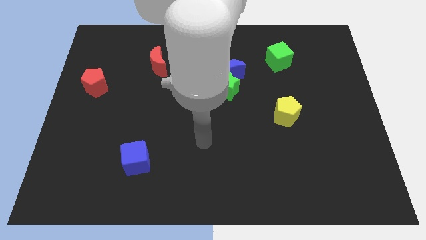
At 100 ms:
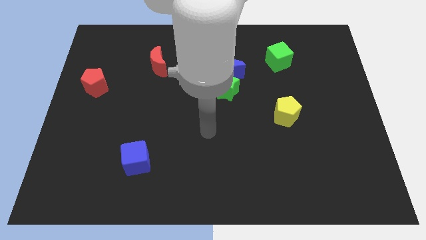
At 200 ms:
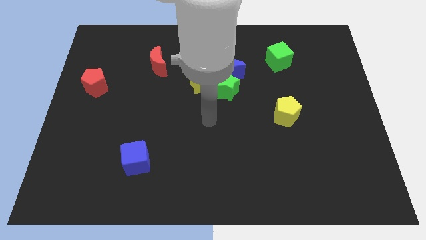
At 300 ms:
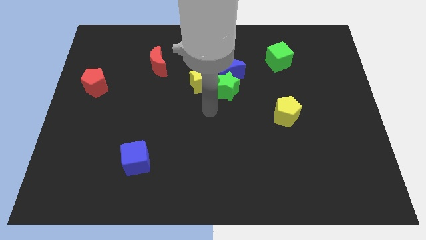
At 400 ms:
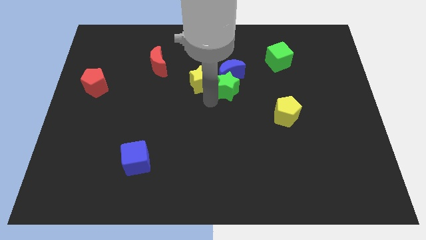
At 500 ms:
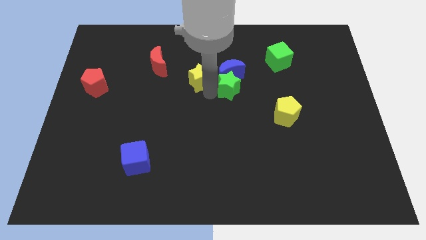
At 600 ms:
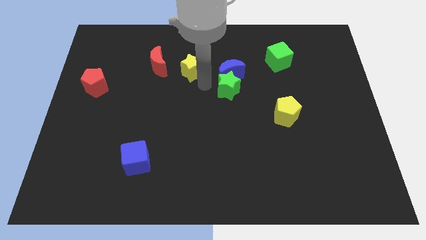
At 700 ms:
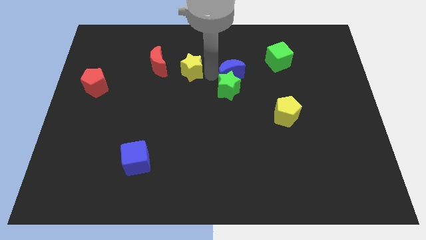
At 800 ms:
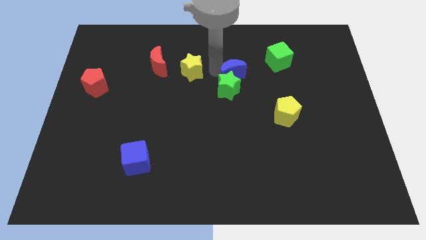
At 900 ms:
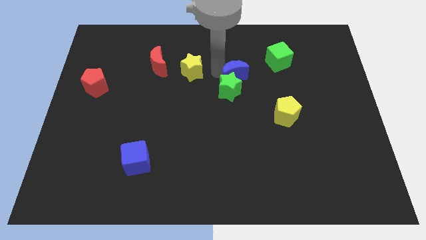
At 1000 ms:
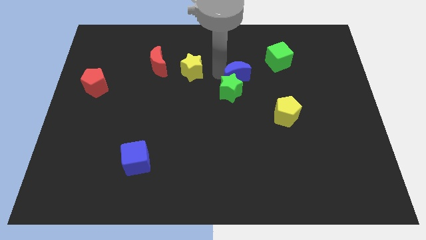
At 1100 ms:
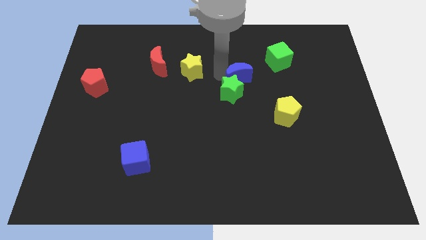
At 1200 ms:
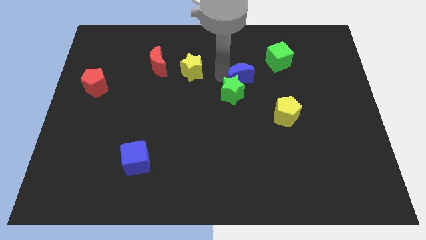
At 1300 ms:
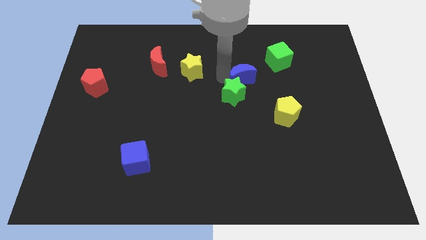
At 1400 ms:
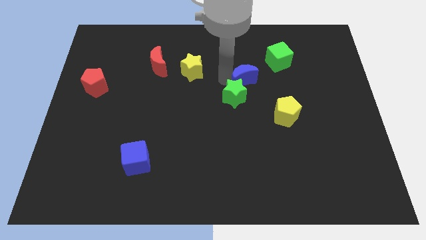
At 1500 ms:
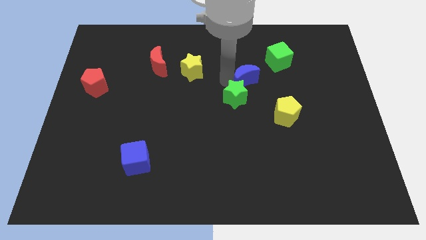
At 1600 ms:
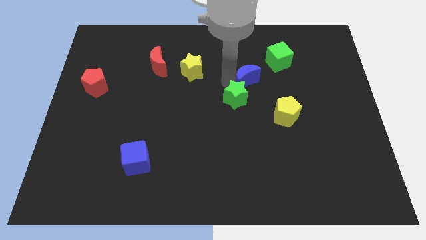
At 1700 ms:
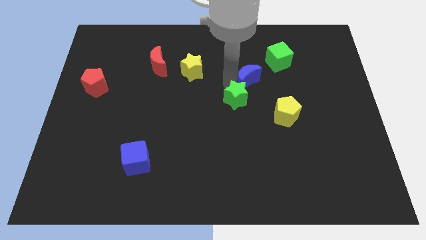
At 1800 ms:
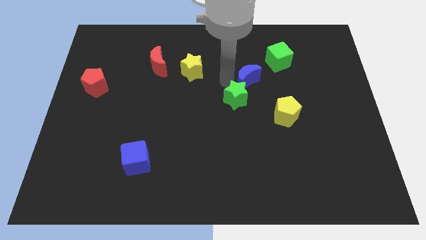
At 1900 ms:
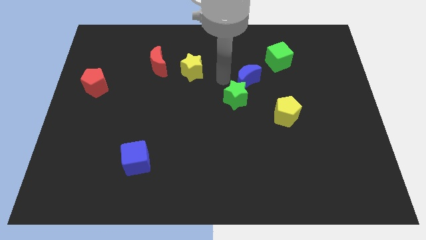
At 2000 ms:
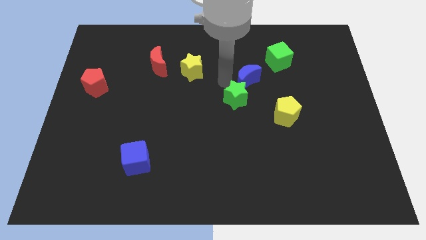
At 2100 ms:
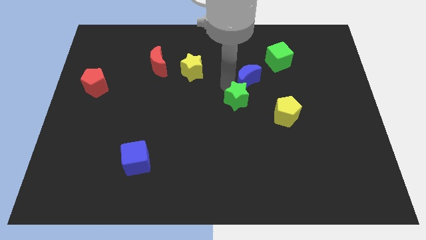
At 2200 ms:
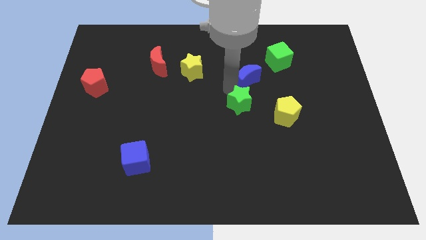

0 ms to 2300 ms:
pull the green star apart from the blue moon and yellow star

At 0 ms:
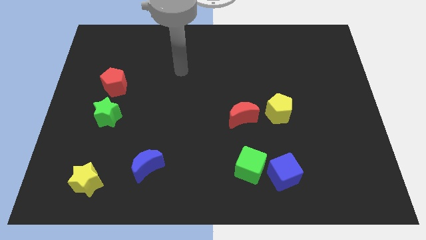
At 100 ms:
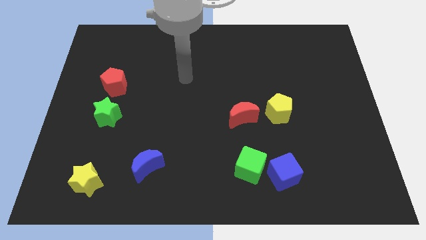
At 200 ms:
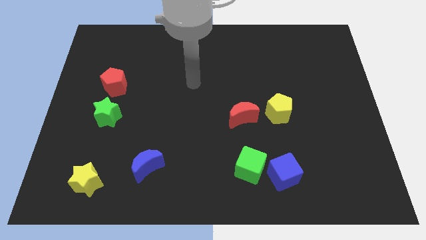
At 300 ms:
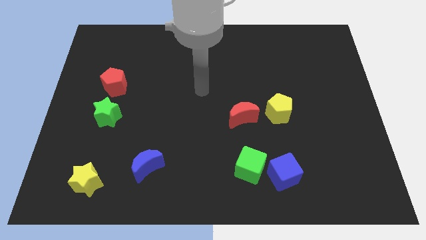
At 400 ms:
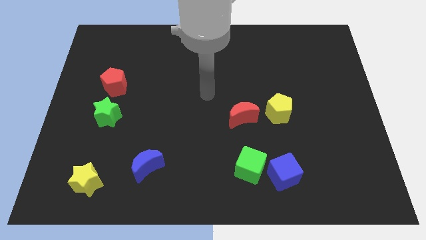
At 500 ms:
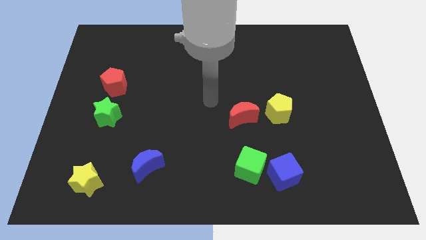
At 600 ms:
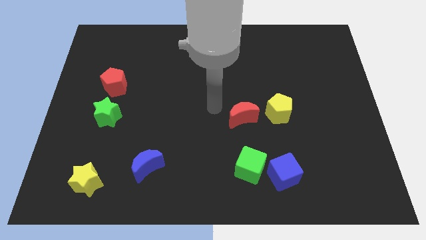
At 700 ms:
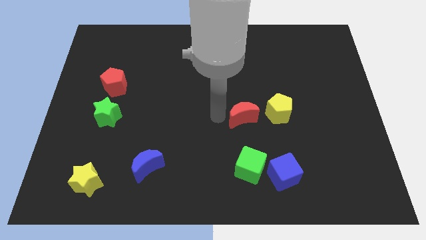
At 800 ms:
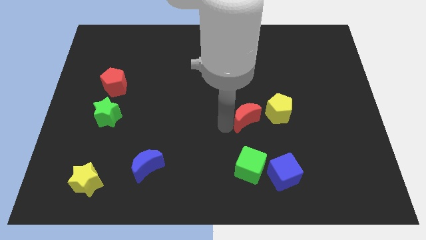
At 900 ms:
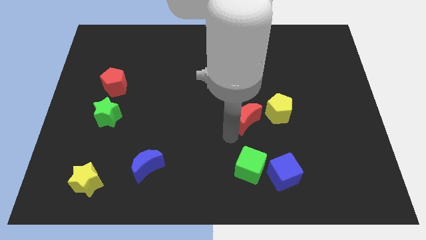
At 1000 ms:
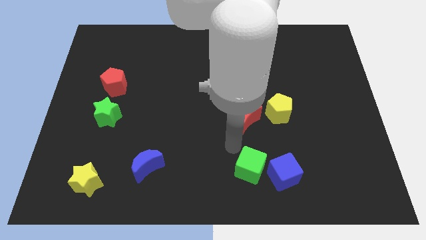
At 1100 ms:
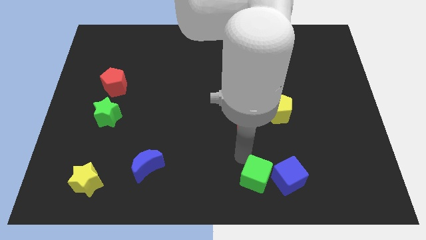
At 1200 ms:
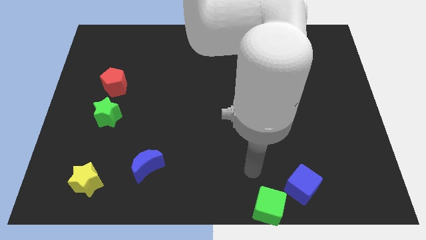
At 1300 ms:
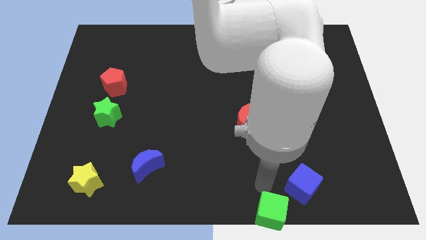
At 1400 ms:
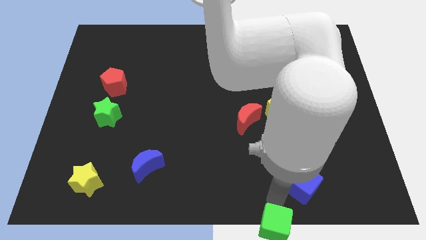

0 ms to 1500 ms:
separate the blue cube from the green cube

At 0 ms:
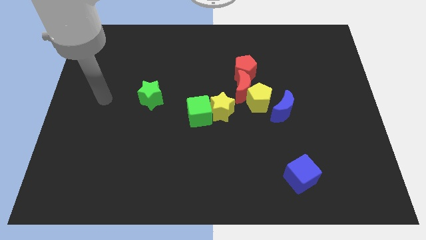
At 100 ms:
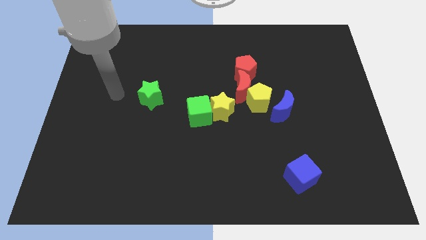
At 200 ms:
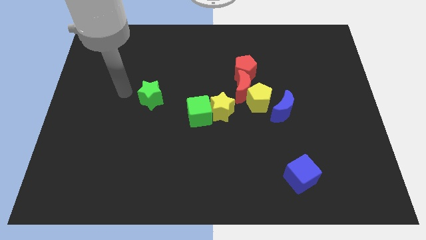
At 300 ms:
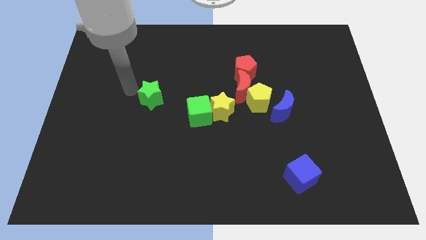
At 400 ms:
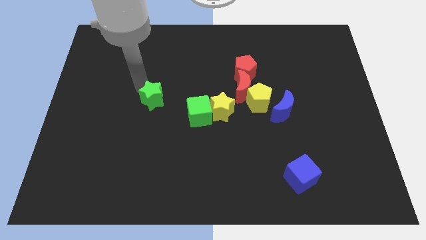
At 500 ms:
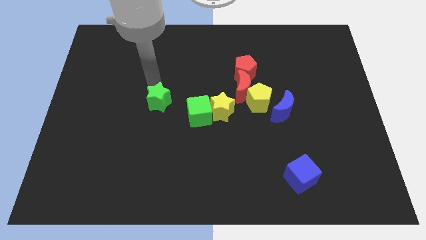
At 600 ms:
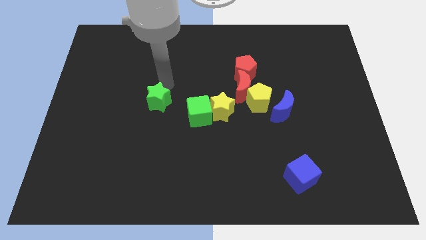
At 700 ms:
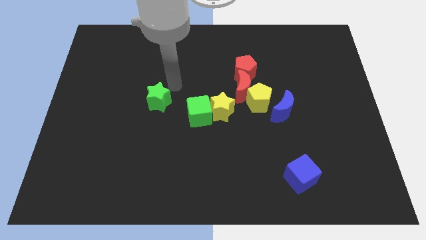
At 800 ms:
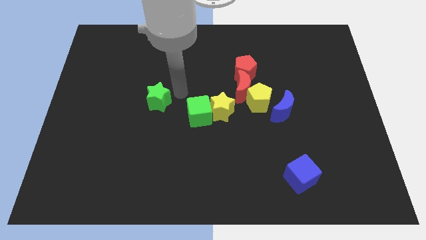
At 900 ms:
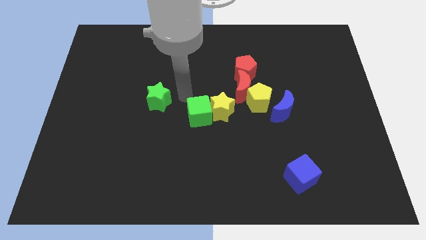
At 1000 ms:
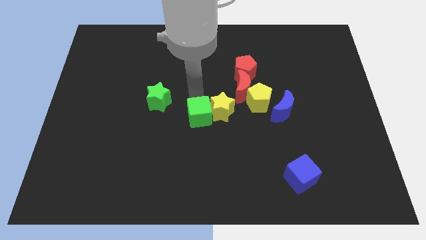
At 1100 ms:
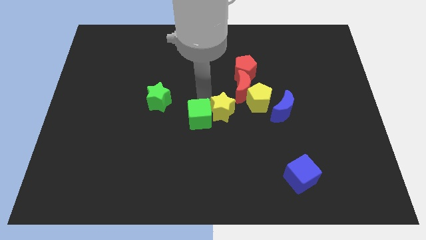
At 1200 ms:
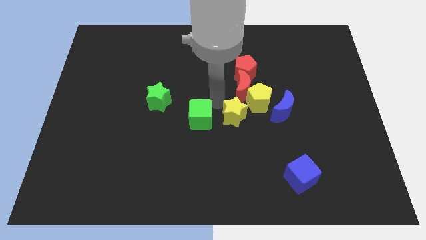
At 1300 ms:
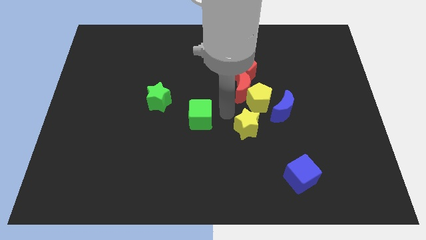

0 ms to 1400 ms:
move the green cube away from the yellow star

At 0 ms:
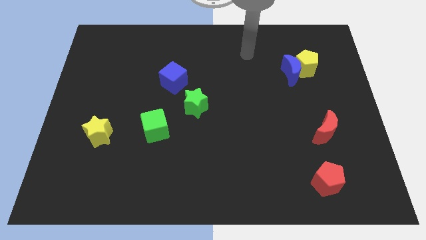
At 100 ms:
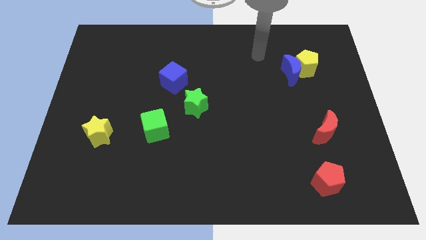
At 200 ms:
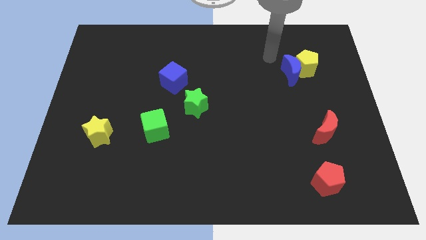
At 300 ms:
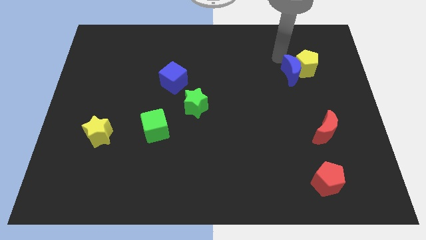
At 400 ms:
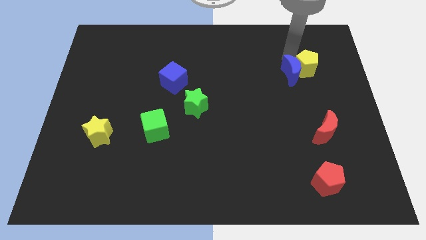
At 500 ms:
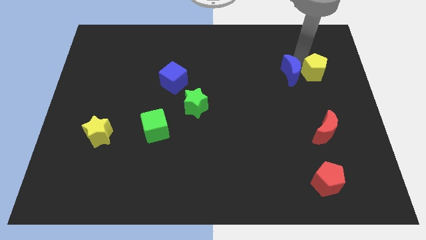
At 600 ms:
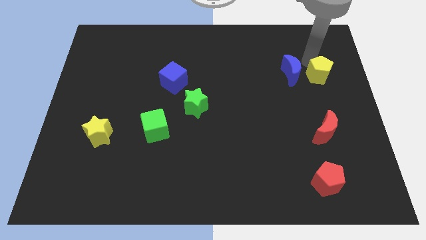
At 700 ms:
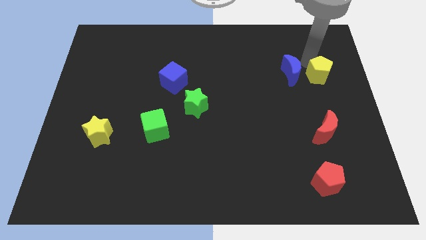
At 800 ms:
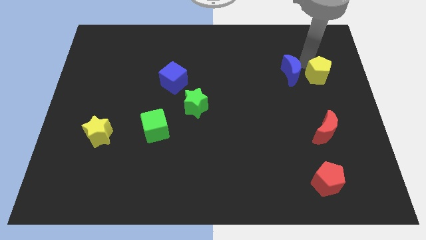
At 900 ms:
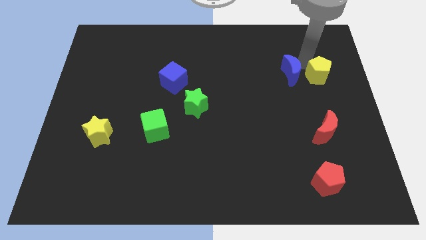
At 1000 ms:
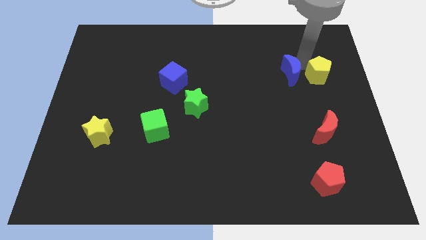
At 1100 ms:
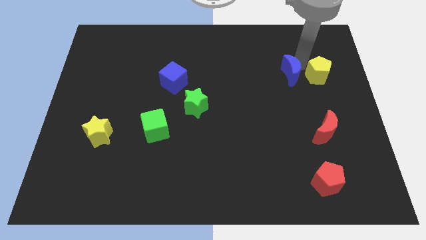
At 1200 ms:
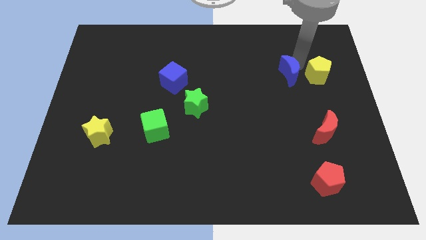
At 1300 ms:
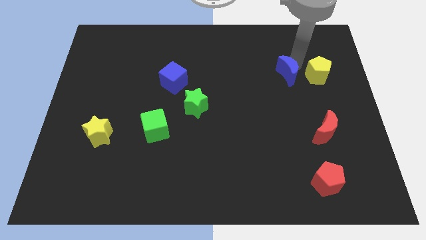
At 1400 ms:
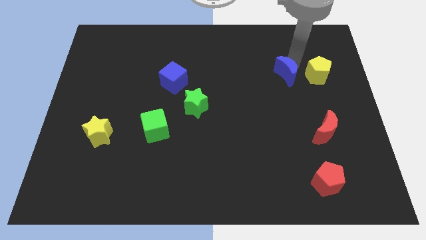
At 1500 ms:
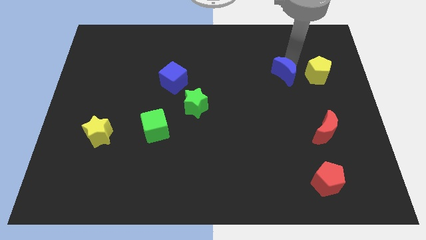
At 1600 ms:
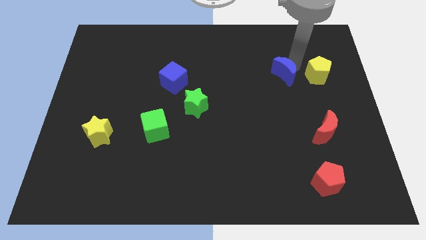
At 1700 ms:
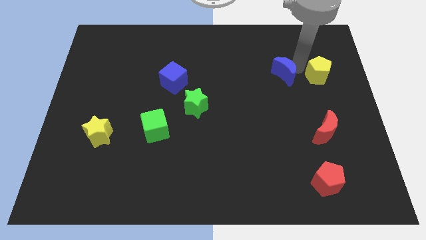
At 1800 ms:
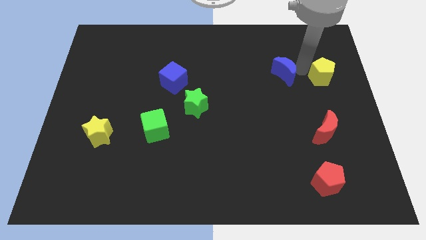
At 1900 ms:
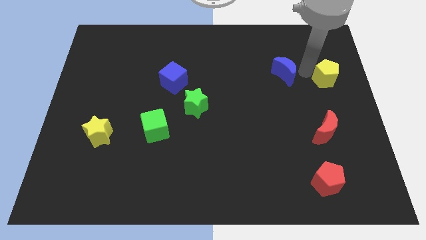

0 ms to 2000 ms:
move the blue moon away from the yellow pentagon

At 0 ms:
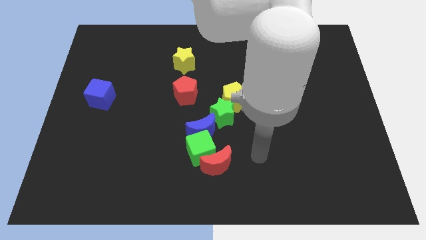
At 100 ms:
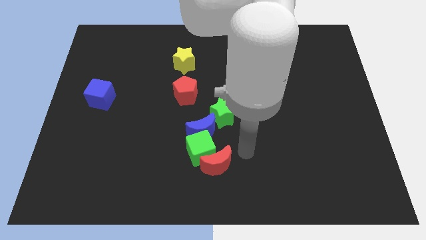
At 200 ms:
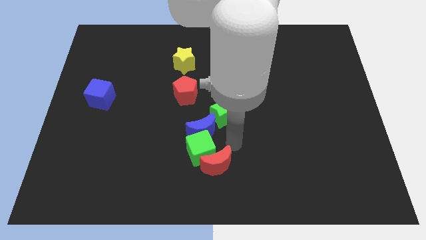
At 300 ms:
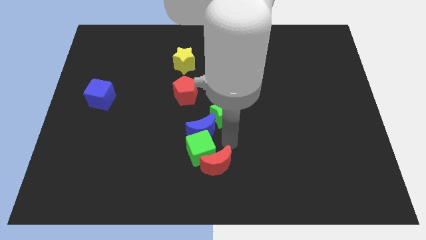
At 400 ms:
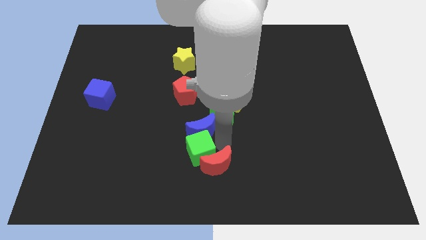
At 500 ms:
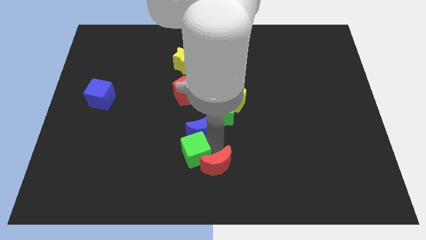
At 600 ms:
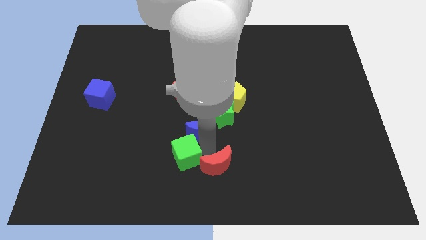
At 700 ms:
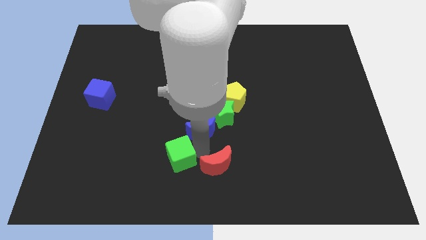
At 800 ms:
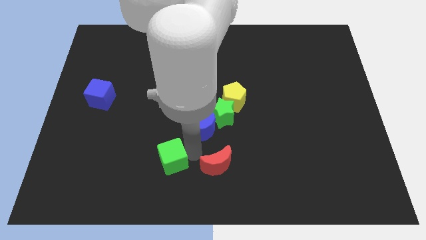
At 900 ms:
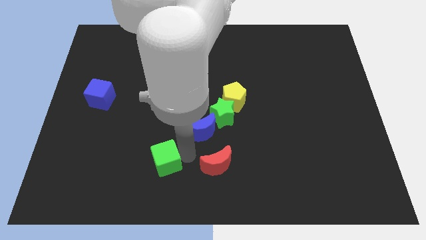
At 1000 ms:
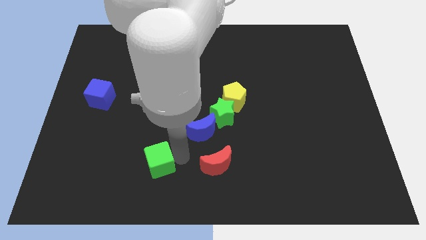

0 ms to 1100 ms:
pull the green cube apart from the blue moon and red moon

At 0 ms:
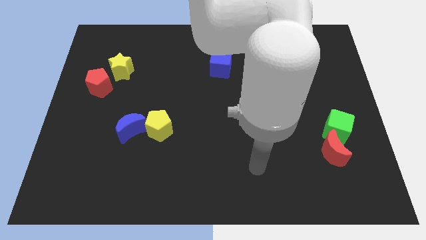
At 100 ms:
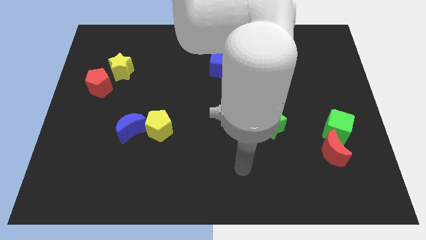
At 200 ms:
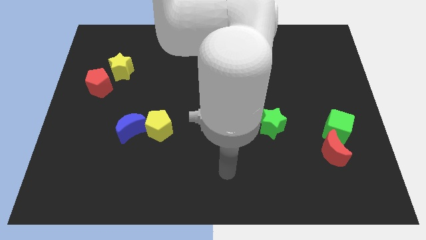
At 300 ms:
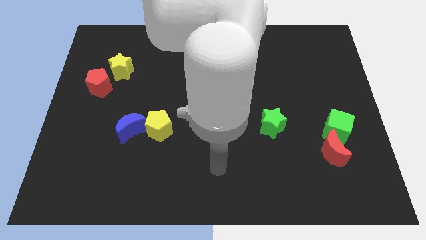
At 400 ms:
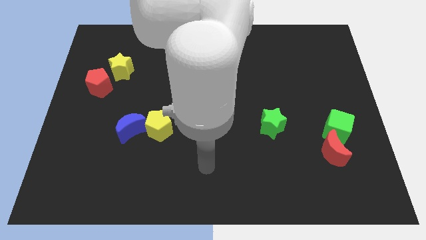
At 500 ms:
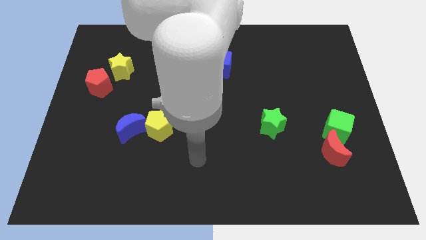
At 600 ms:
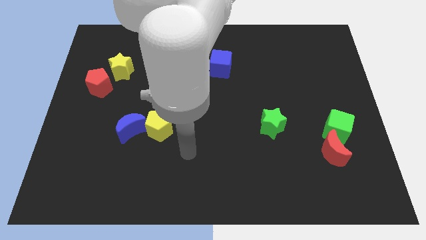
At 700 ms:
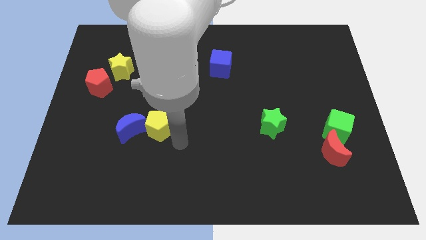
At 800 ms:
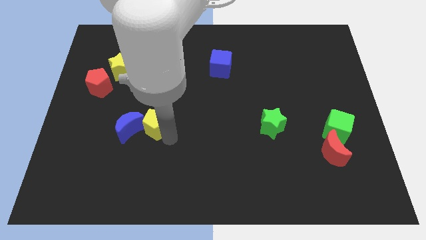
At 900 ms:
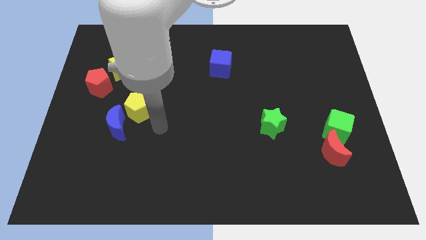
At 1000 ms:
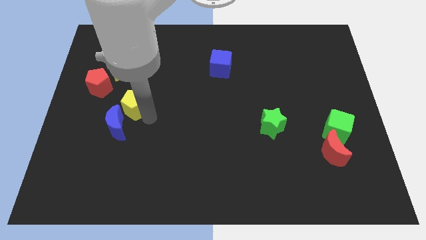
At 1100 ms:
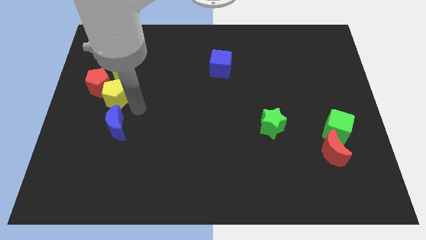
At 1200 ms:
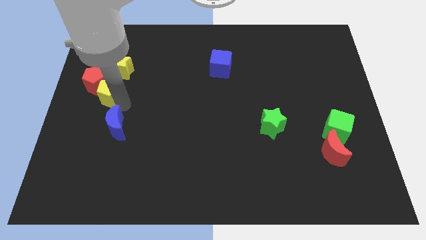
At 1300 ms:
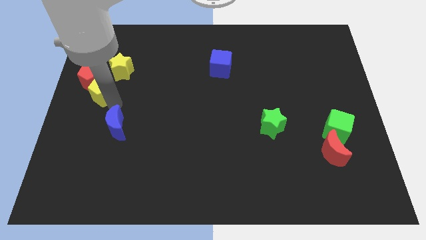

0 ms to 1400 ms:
pull the blue moon apart from the yellow pentagon
